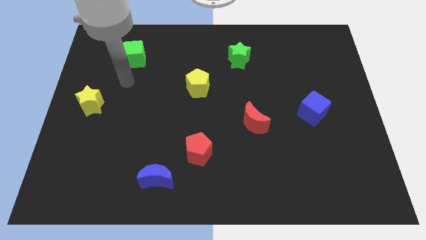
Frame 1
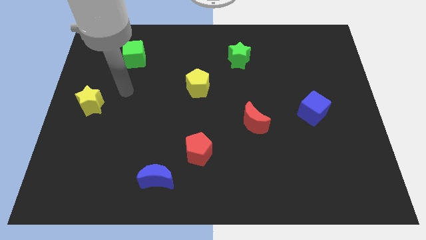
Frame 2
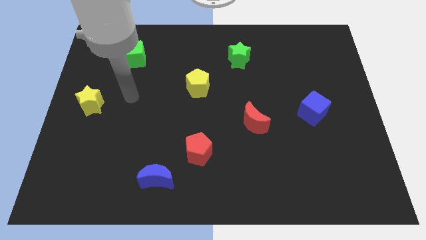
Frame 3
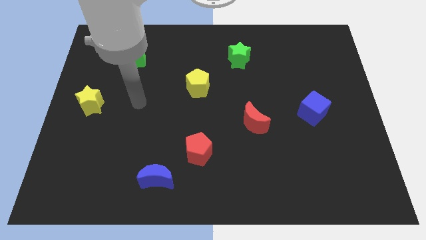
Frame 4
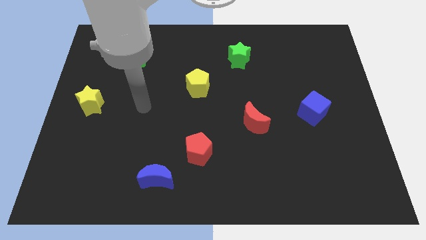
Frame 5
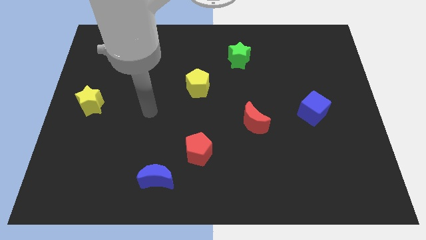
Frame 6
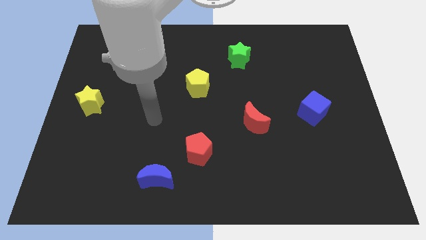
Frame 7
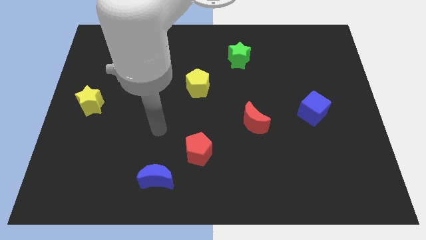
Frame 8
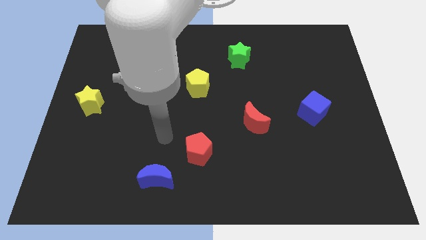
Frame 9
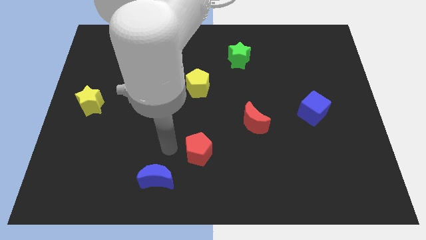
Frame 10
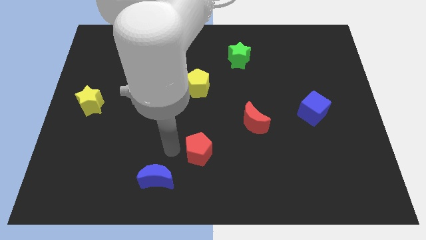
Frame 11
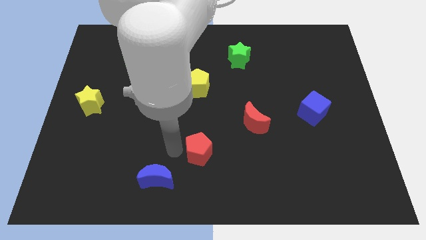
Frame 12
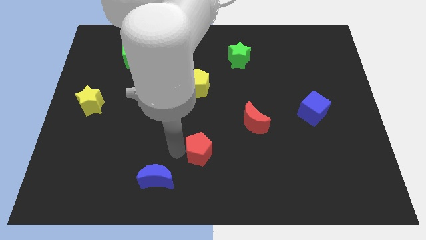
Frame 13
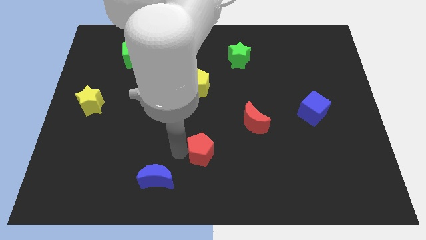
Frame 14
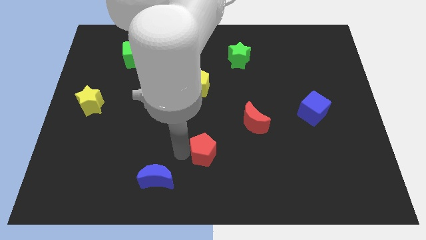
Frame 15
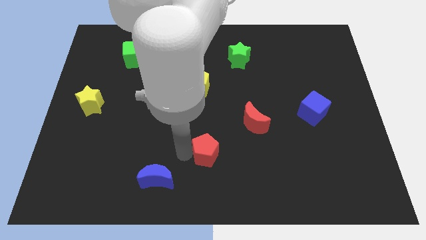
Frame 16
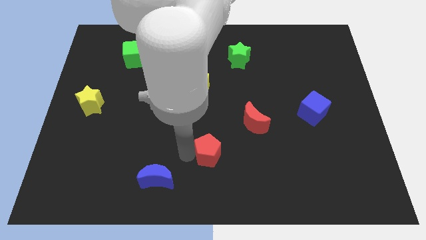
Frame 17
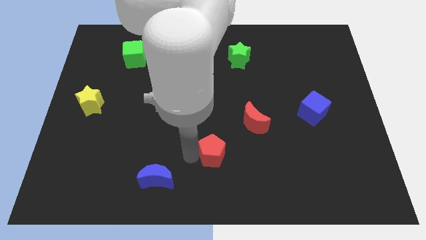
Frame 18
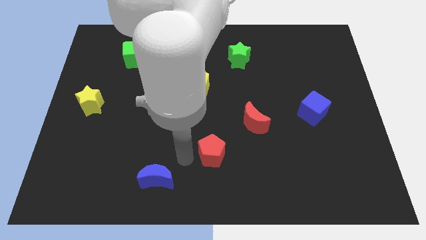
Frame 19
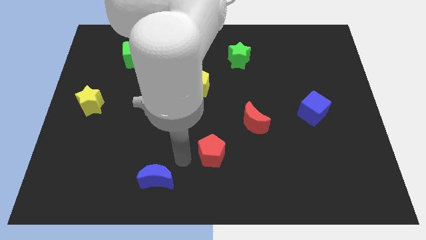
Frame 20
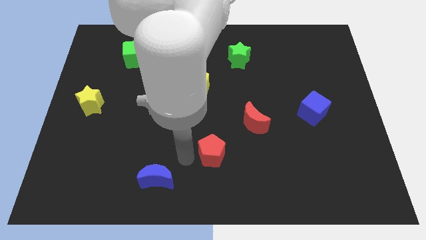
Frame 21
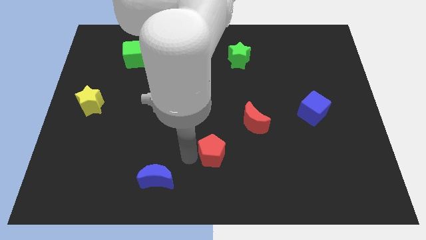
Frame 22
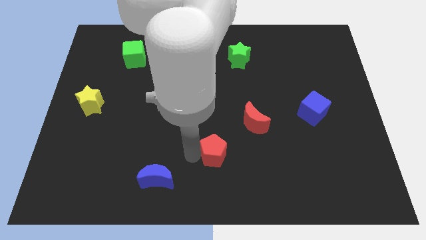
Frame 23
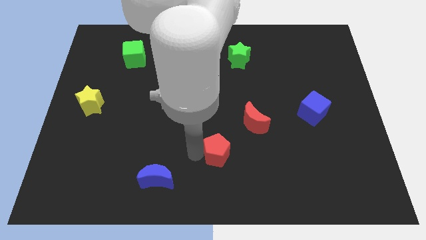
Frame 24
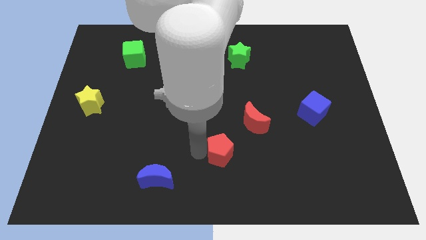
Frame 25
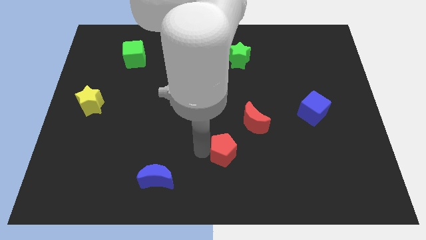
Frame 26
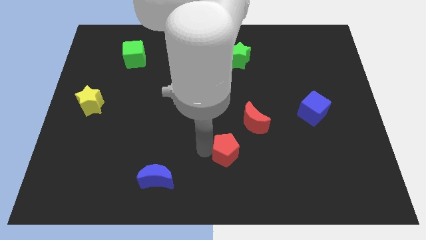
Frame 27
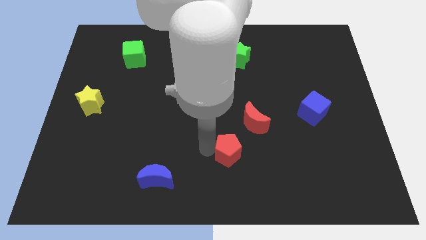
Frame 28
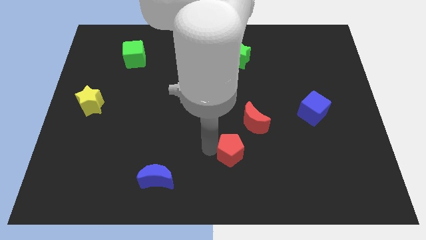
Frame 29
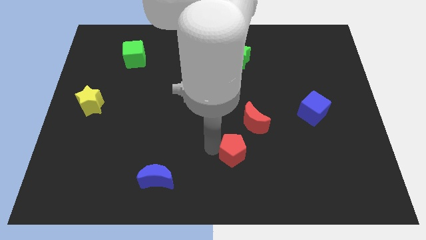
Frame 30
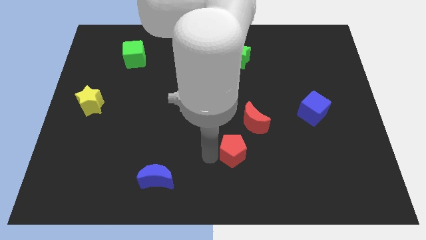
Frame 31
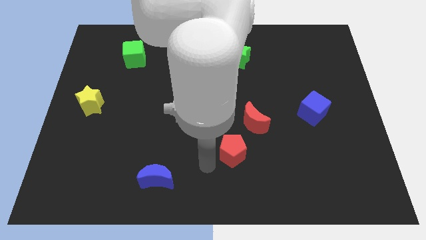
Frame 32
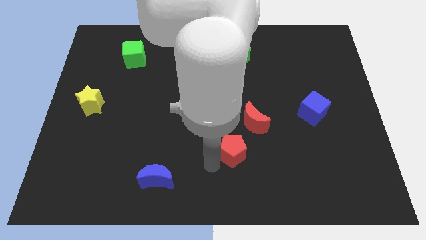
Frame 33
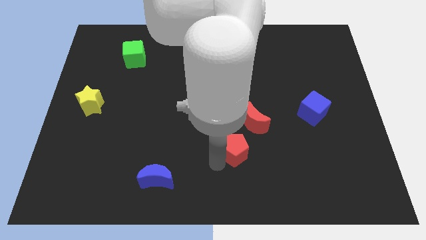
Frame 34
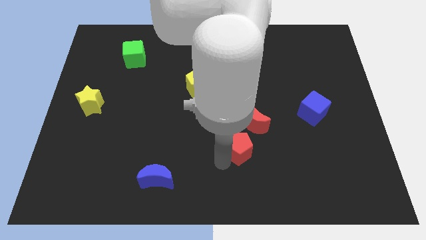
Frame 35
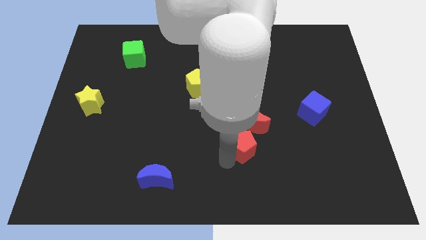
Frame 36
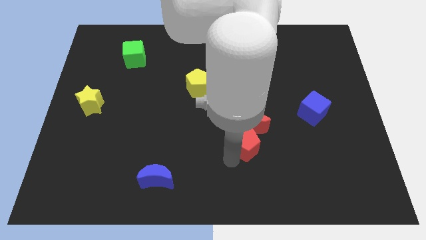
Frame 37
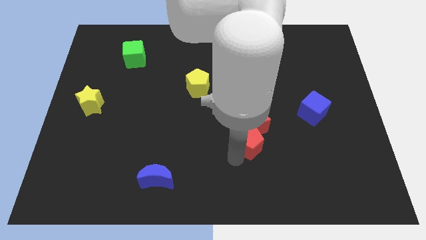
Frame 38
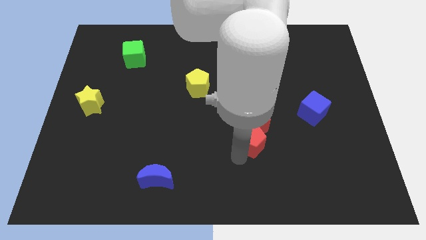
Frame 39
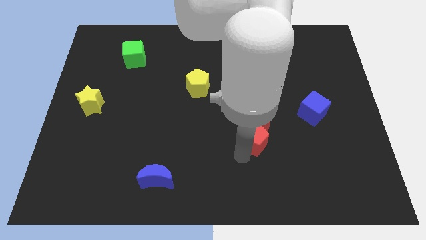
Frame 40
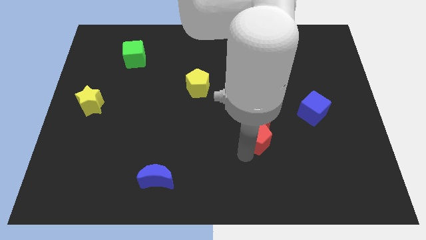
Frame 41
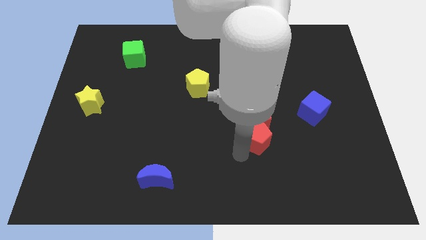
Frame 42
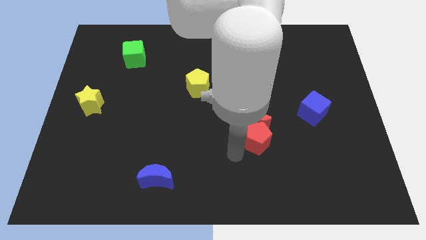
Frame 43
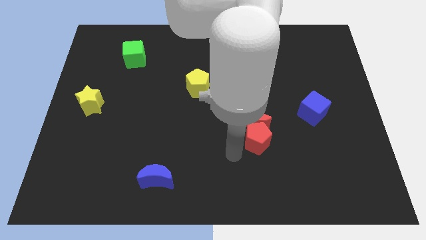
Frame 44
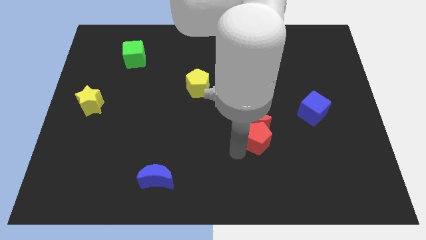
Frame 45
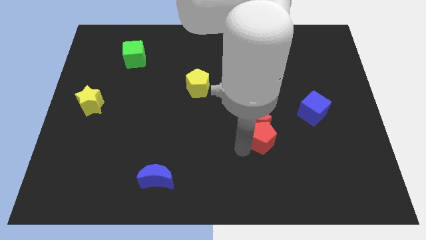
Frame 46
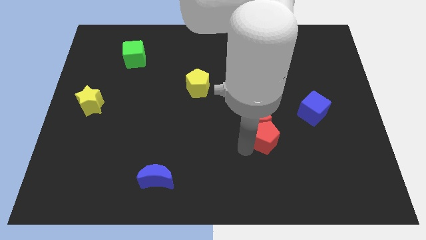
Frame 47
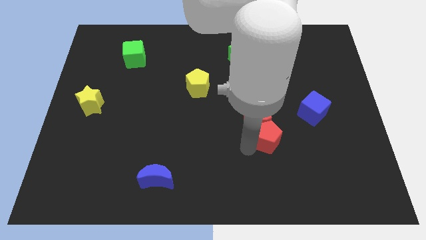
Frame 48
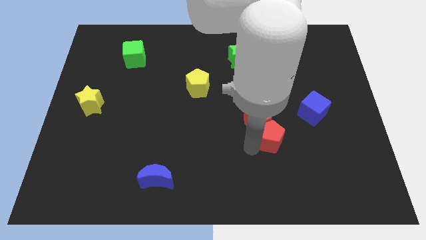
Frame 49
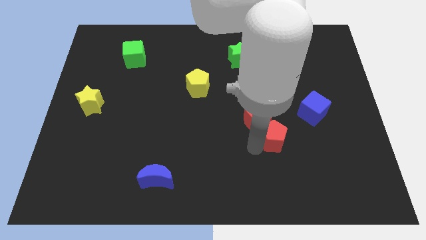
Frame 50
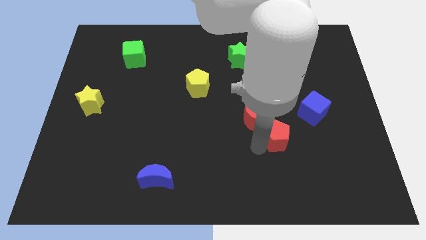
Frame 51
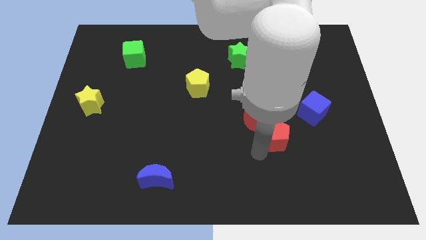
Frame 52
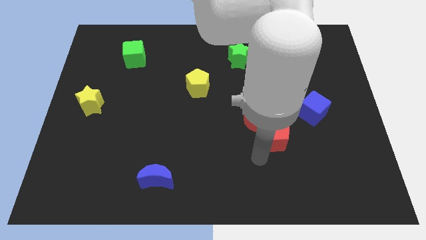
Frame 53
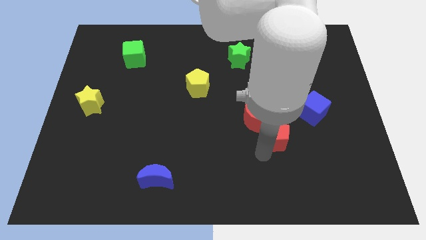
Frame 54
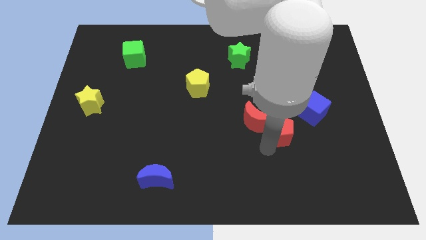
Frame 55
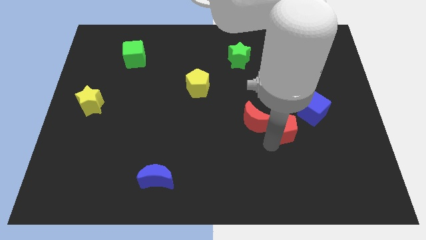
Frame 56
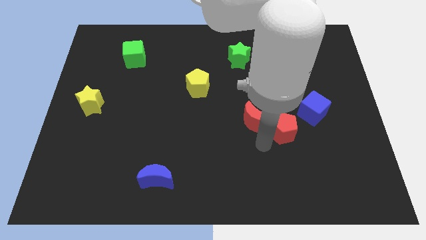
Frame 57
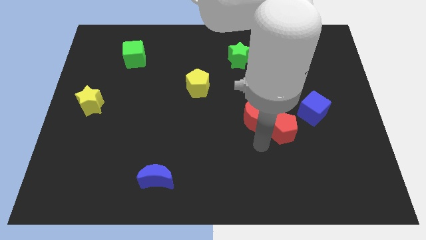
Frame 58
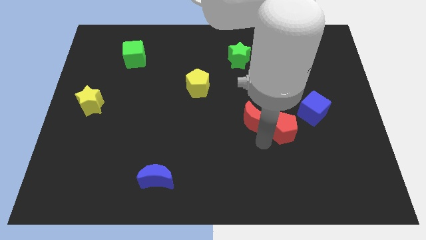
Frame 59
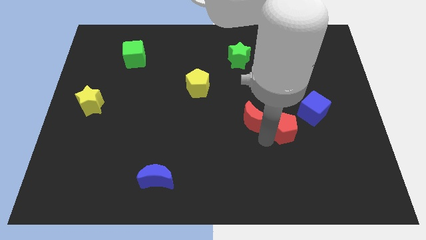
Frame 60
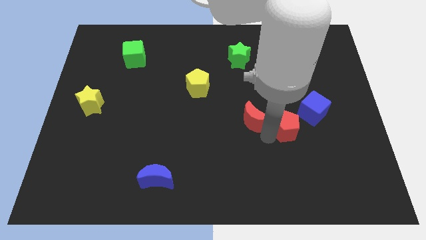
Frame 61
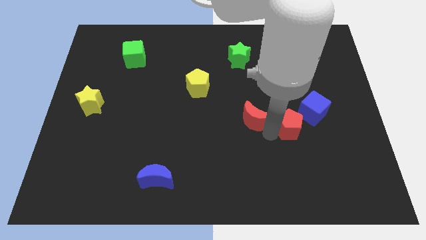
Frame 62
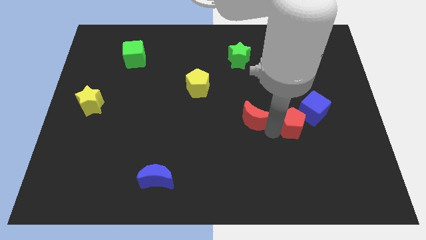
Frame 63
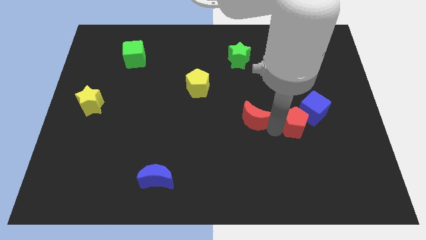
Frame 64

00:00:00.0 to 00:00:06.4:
put the red pentagon next to the blue cube
